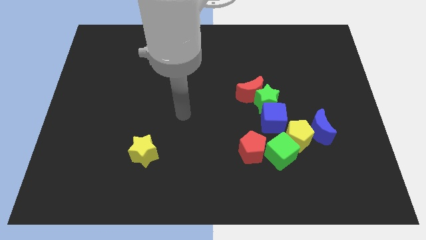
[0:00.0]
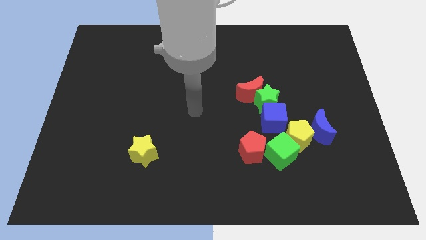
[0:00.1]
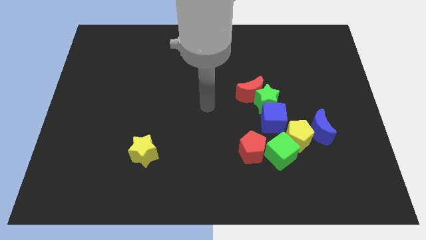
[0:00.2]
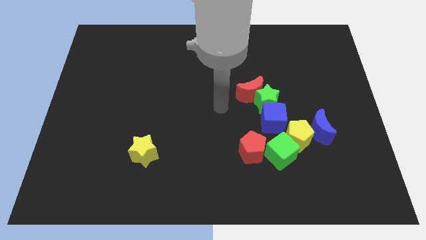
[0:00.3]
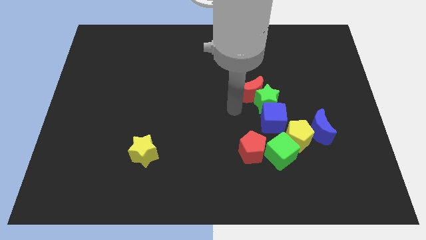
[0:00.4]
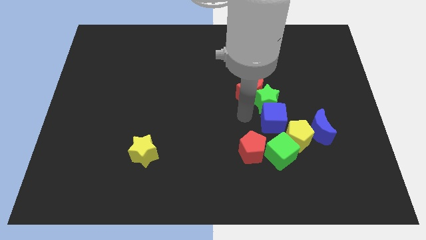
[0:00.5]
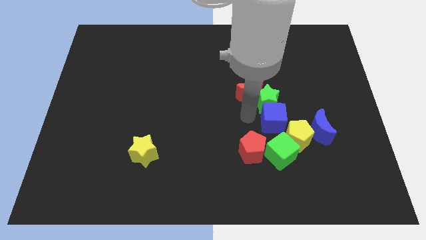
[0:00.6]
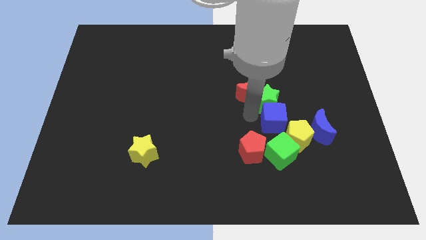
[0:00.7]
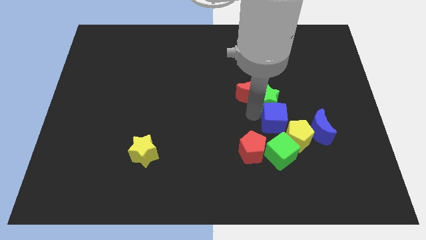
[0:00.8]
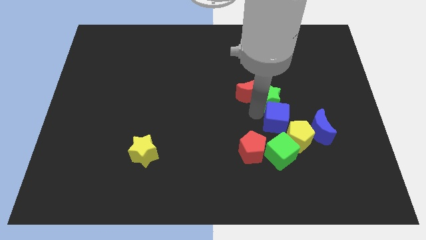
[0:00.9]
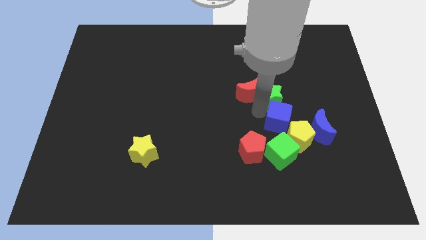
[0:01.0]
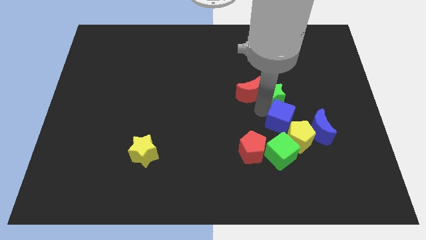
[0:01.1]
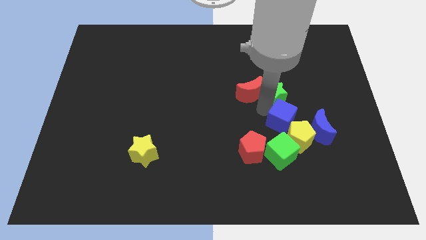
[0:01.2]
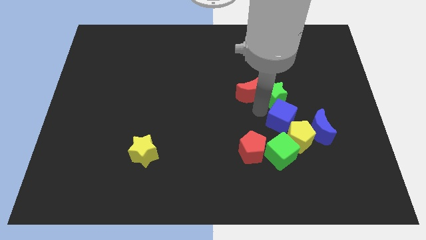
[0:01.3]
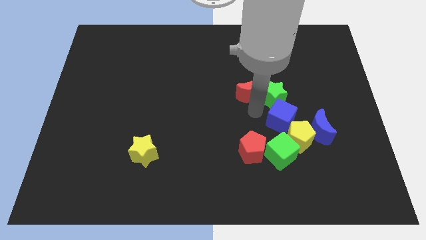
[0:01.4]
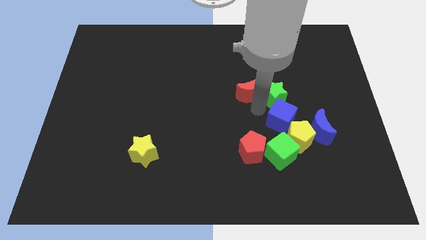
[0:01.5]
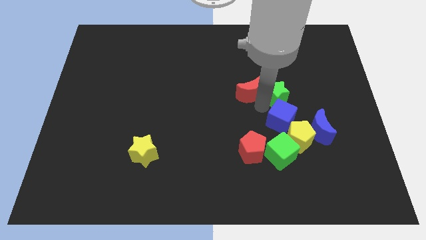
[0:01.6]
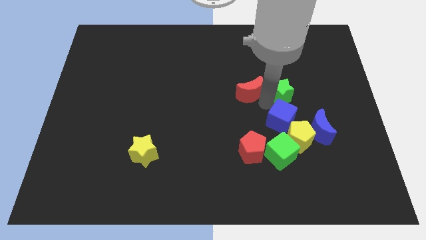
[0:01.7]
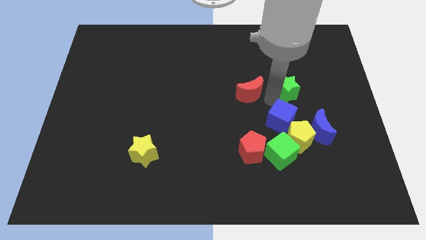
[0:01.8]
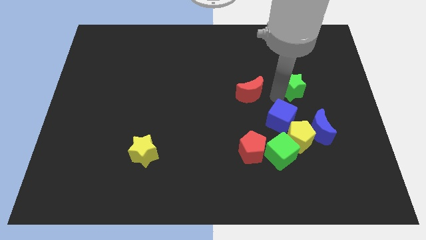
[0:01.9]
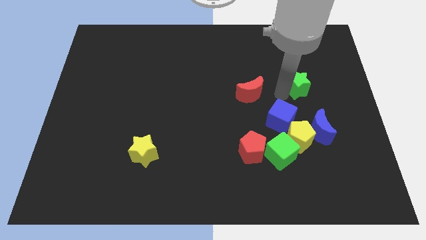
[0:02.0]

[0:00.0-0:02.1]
pull the green star apart from the red moon and blue cube

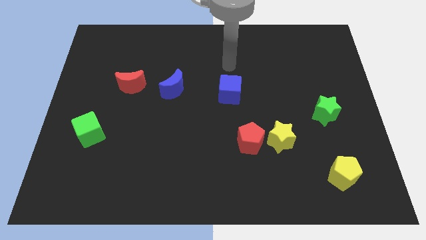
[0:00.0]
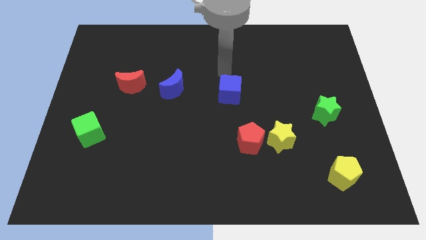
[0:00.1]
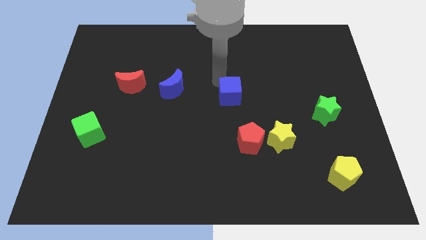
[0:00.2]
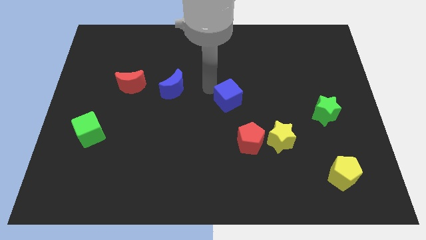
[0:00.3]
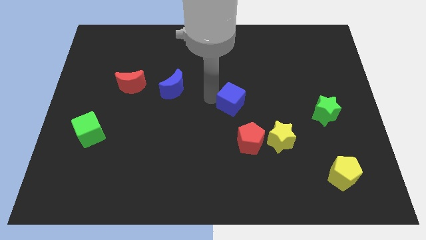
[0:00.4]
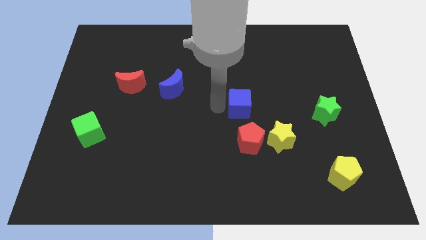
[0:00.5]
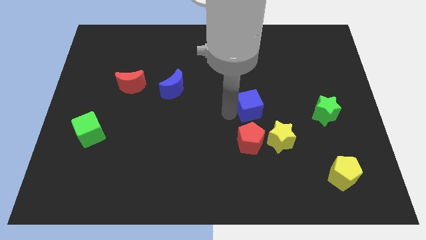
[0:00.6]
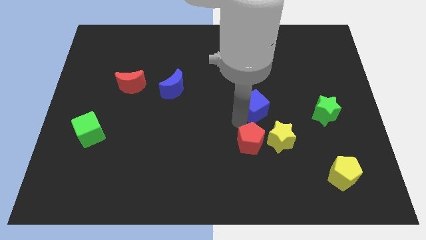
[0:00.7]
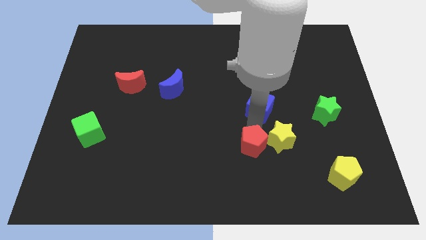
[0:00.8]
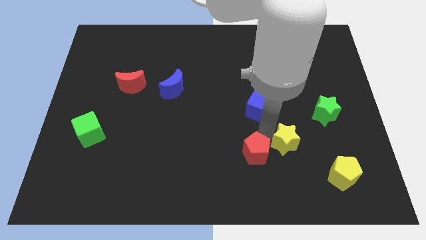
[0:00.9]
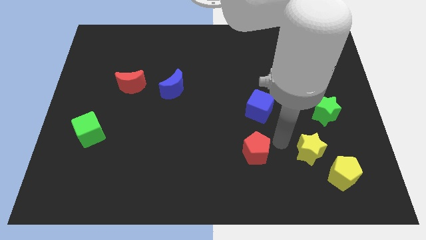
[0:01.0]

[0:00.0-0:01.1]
separate the red pentagon from the yellow star

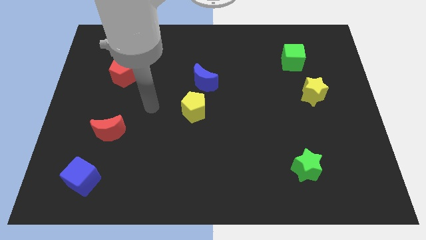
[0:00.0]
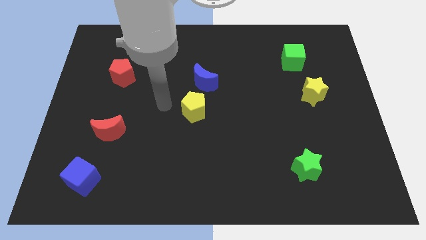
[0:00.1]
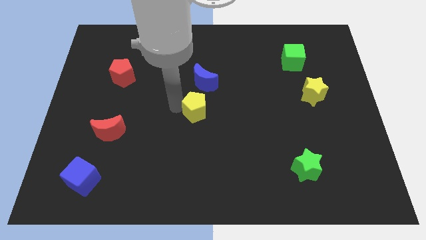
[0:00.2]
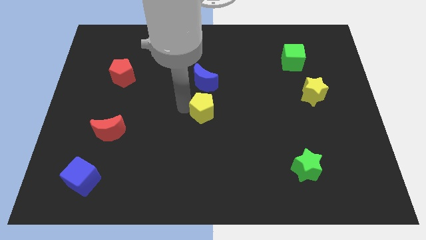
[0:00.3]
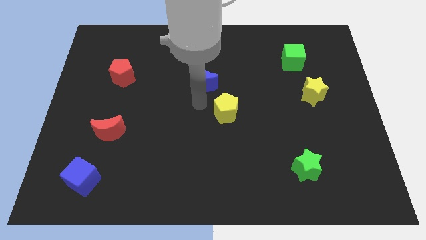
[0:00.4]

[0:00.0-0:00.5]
separate the blue moon from the yellow pentagon

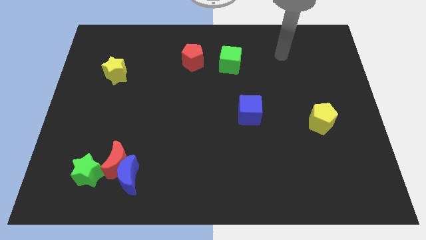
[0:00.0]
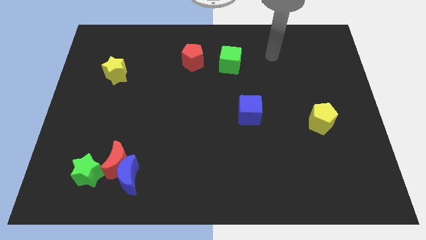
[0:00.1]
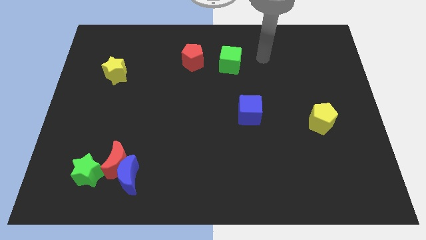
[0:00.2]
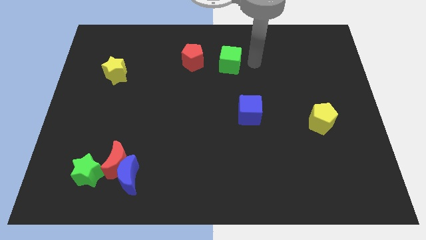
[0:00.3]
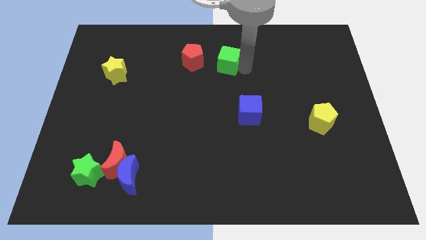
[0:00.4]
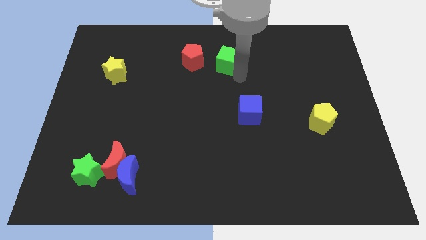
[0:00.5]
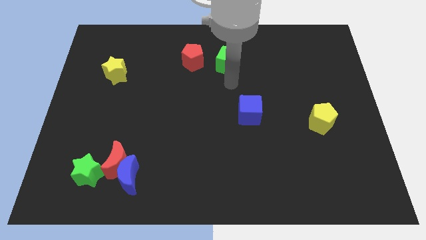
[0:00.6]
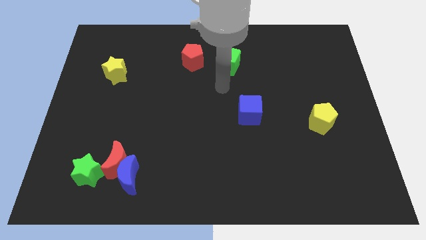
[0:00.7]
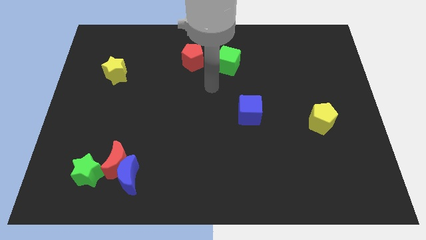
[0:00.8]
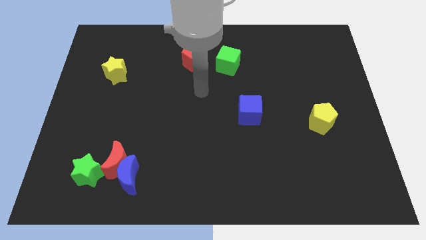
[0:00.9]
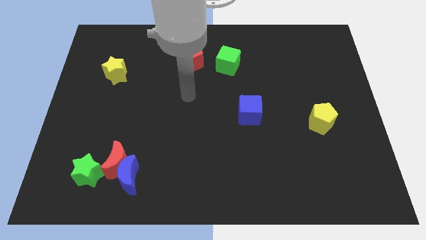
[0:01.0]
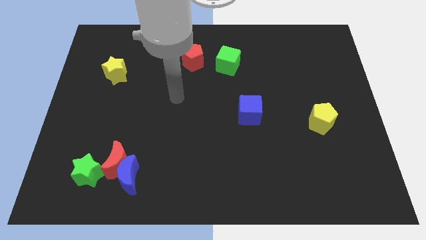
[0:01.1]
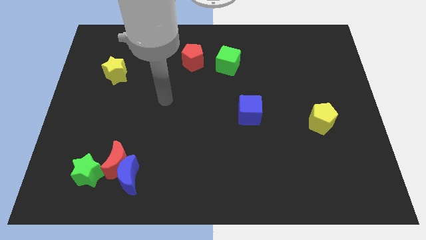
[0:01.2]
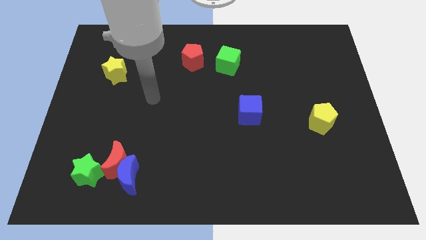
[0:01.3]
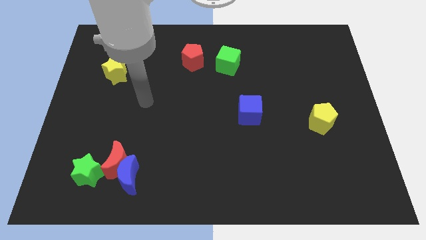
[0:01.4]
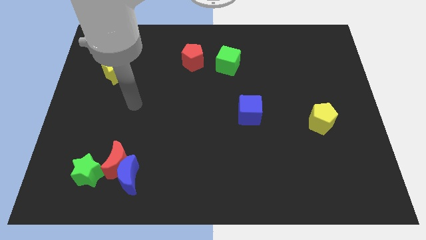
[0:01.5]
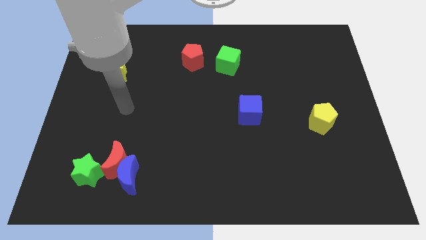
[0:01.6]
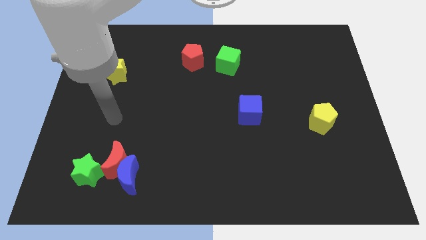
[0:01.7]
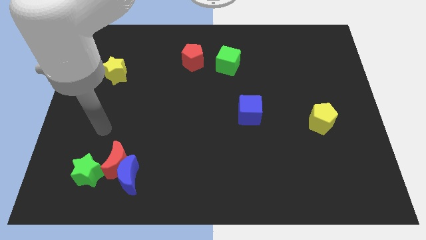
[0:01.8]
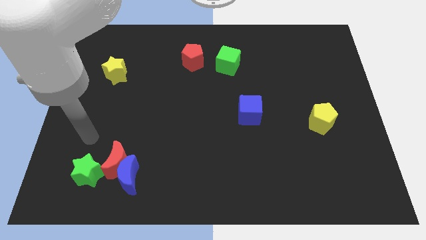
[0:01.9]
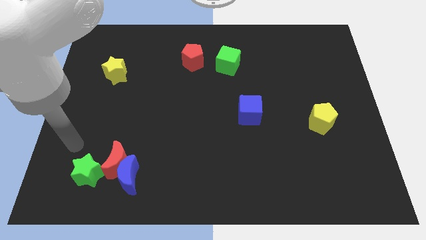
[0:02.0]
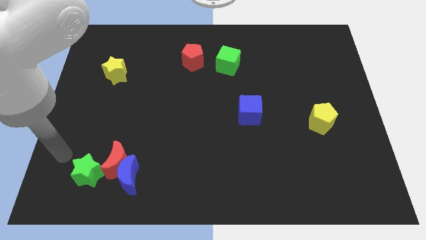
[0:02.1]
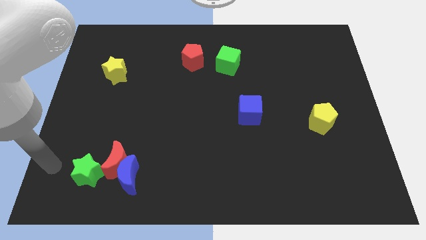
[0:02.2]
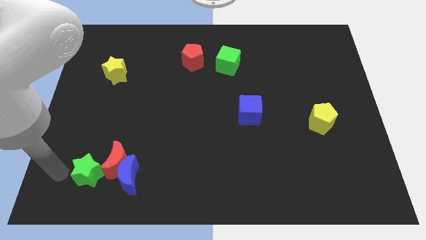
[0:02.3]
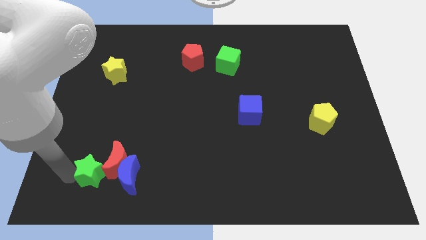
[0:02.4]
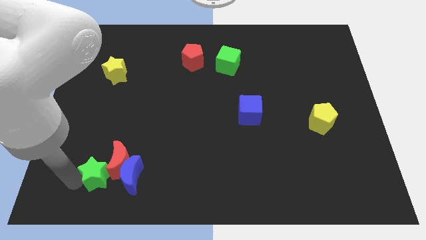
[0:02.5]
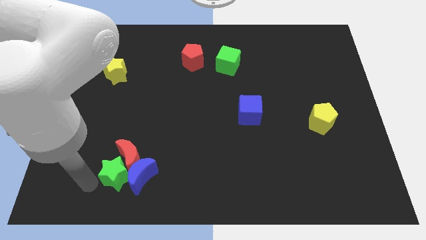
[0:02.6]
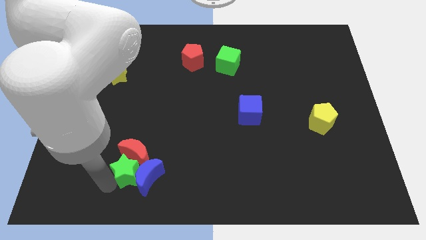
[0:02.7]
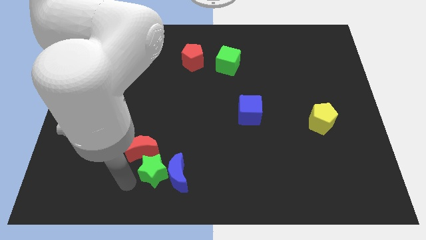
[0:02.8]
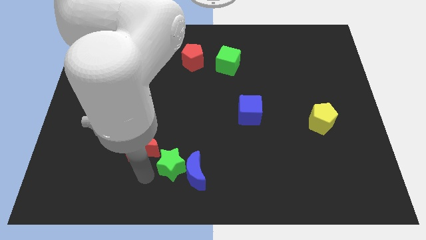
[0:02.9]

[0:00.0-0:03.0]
separate the red moon from the blue moon and green star

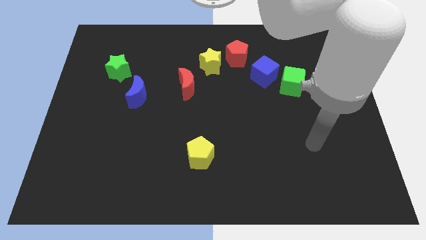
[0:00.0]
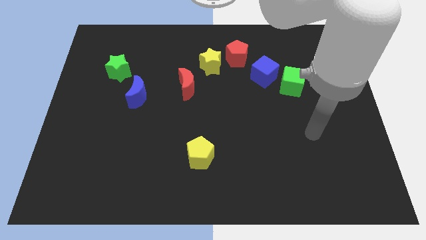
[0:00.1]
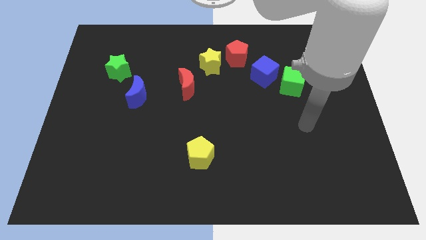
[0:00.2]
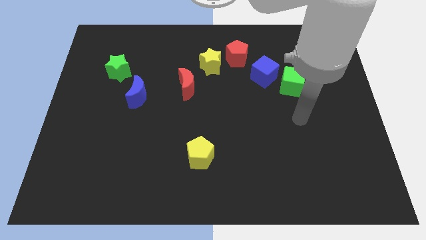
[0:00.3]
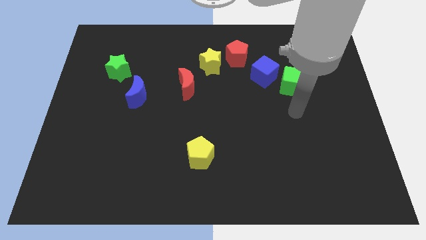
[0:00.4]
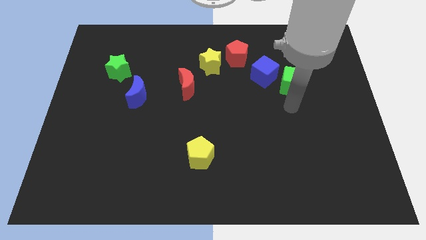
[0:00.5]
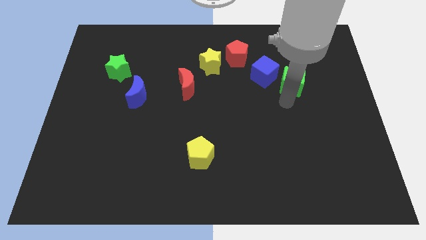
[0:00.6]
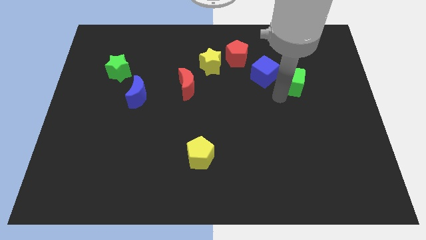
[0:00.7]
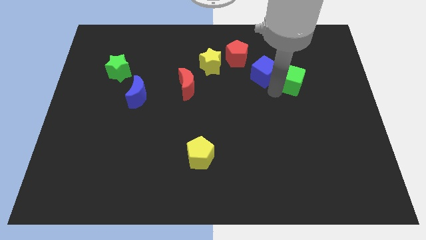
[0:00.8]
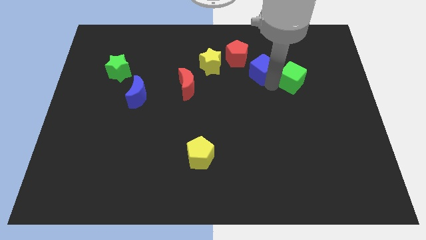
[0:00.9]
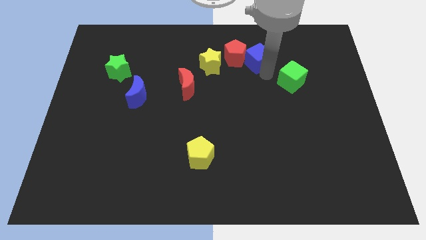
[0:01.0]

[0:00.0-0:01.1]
move the green cube away from the blue cube

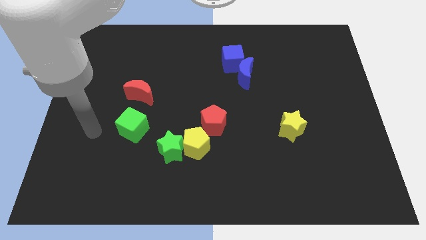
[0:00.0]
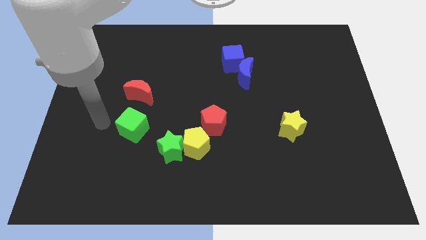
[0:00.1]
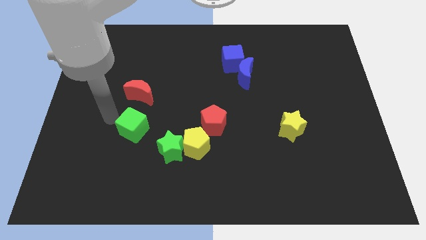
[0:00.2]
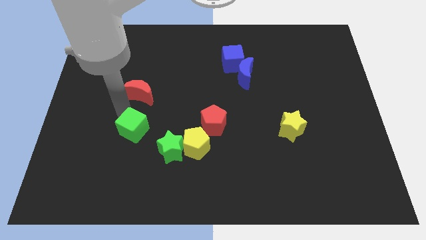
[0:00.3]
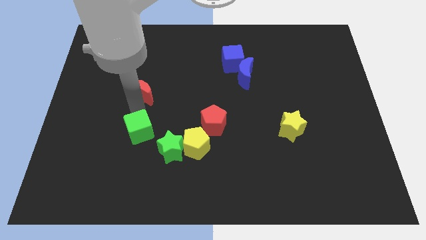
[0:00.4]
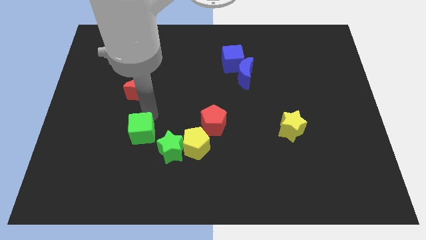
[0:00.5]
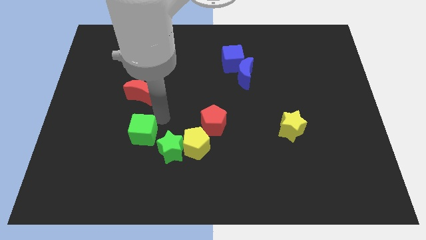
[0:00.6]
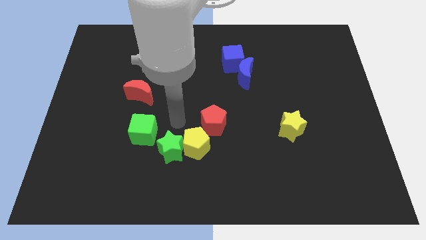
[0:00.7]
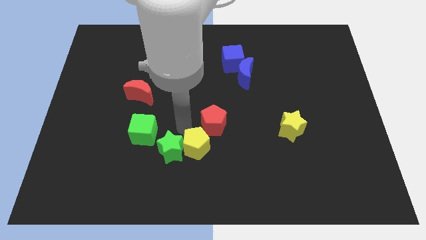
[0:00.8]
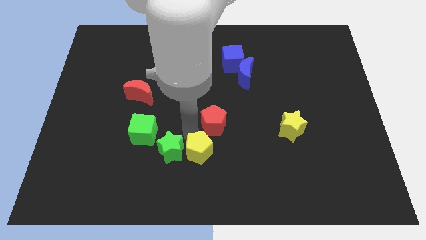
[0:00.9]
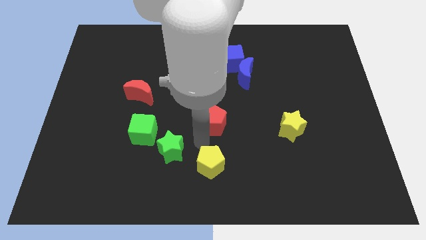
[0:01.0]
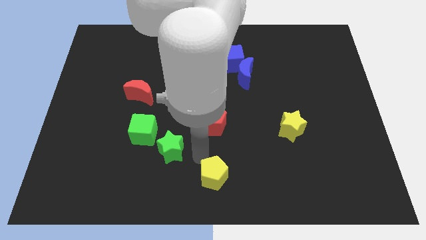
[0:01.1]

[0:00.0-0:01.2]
pull the green star apart from the yellow pentagon

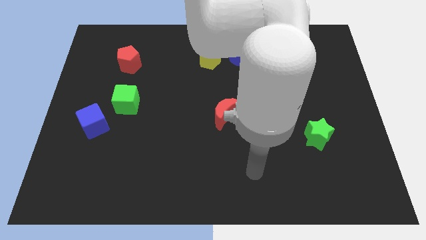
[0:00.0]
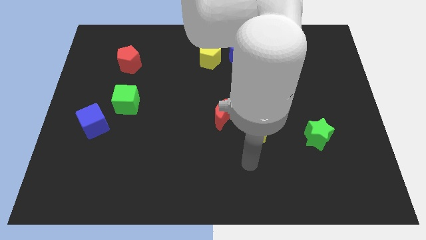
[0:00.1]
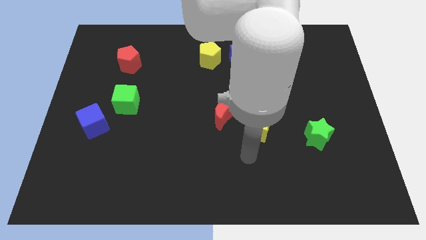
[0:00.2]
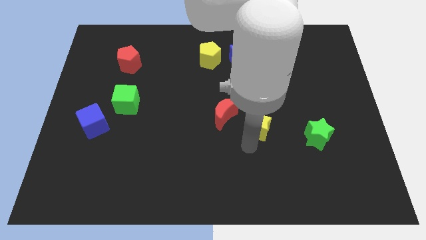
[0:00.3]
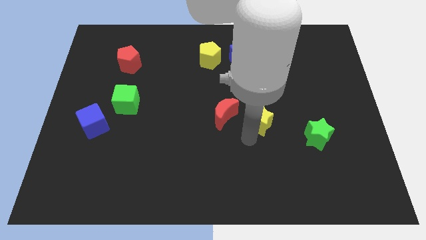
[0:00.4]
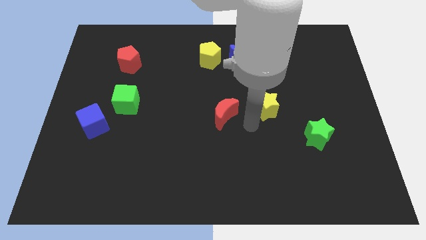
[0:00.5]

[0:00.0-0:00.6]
pull the red moon apart from the yellow star
